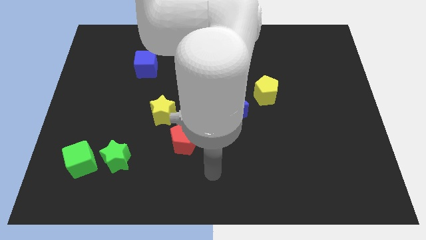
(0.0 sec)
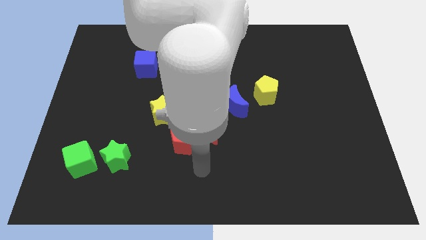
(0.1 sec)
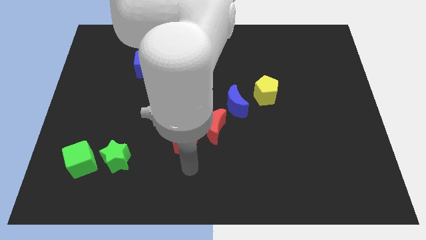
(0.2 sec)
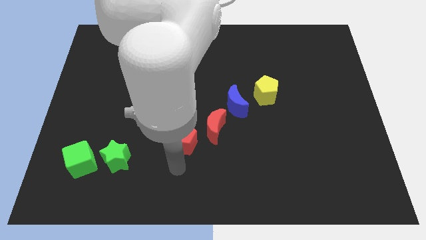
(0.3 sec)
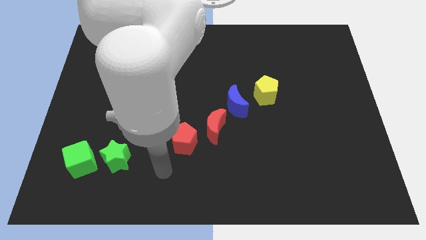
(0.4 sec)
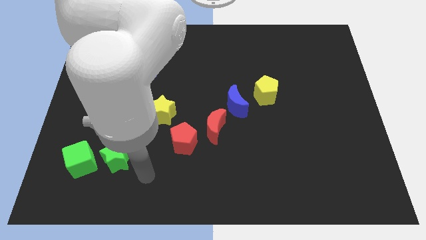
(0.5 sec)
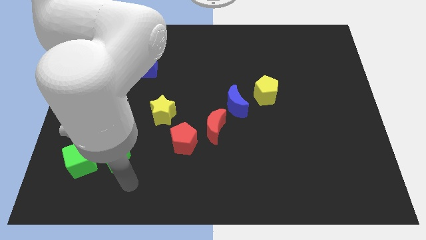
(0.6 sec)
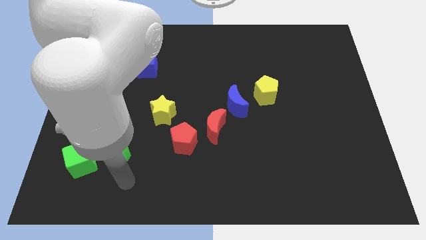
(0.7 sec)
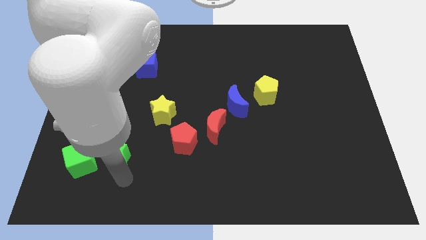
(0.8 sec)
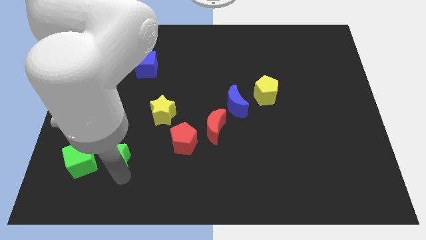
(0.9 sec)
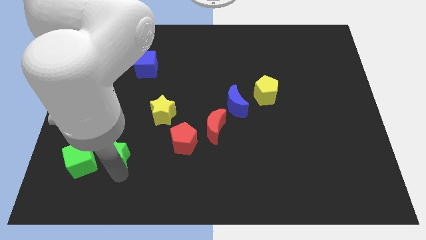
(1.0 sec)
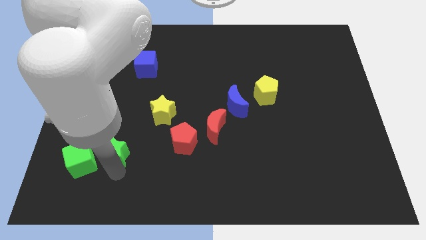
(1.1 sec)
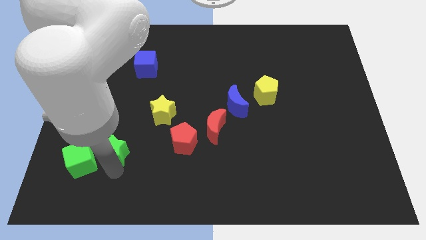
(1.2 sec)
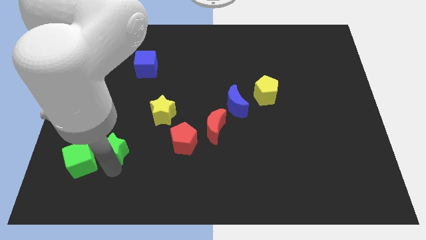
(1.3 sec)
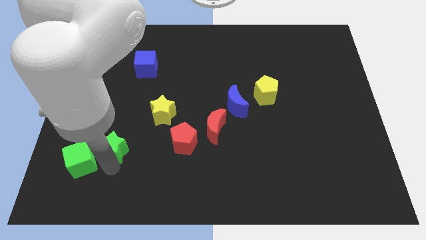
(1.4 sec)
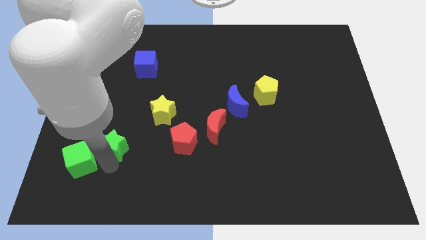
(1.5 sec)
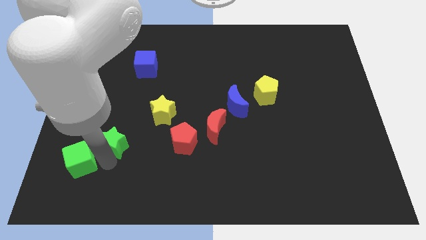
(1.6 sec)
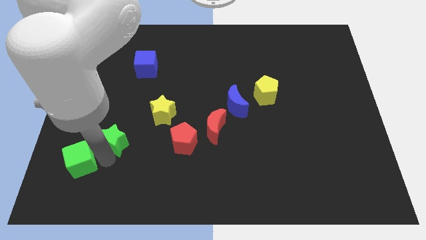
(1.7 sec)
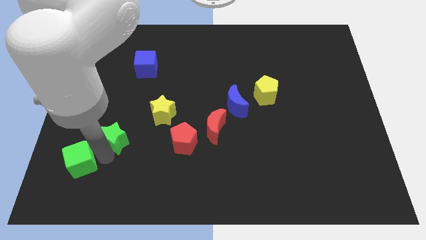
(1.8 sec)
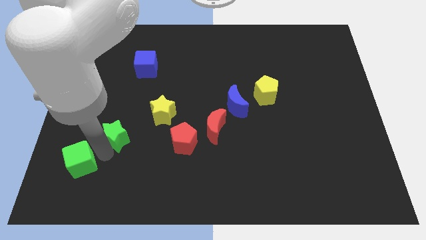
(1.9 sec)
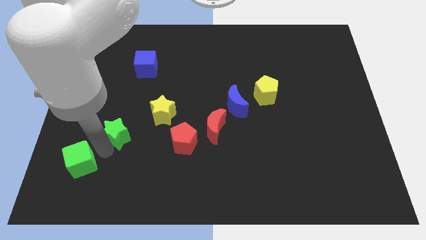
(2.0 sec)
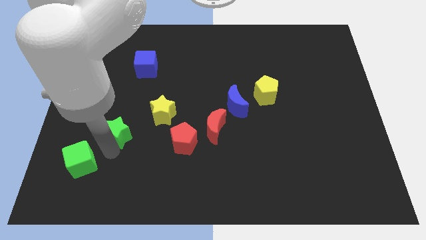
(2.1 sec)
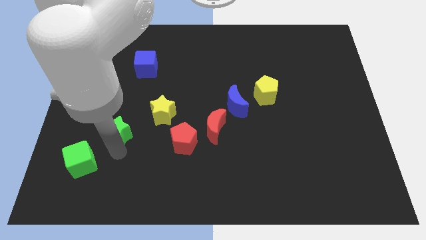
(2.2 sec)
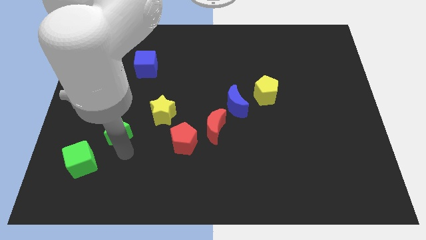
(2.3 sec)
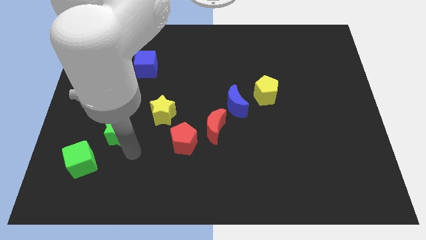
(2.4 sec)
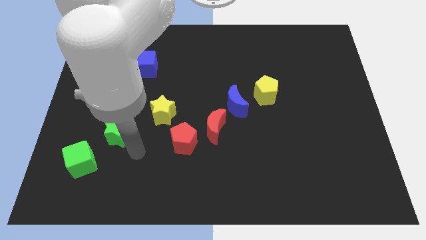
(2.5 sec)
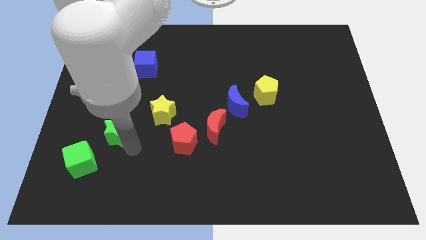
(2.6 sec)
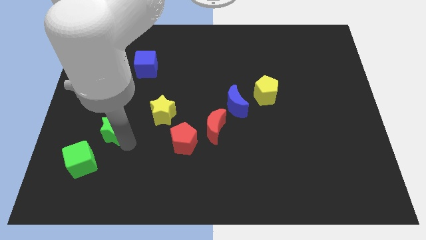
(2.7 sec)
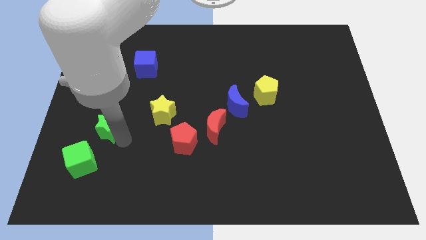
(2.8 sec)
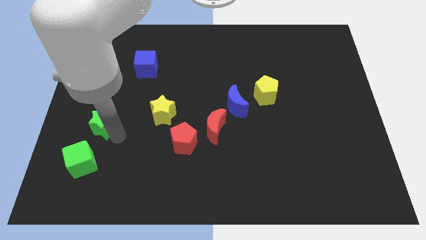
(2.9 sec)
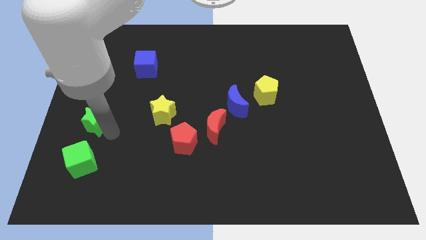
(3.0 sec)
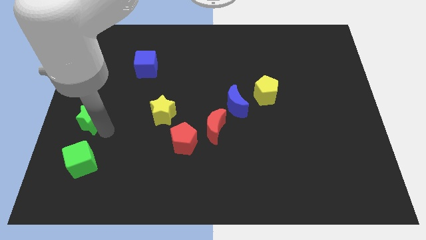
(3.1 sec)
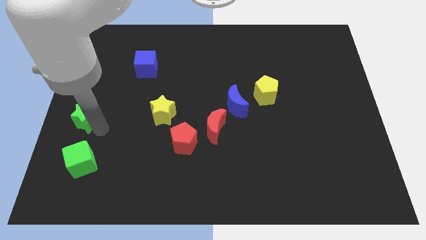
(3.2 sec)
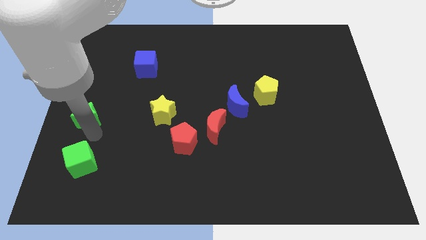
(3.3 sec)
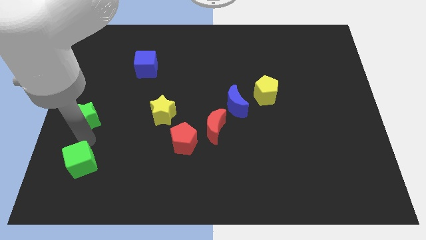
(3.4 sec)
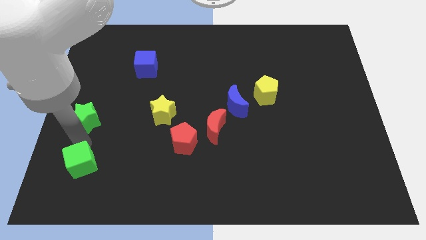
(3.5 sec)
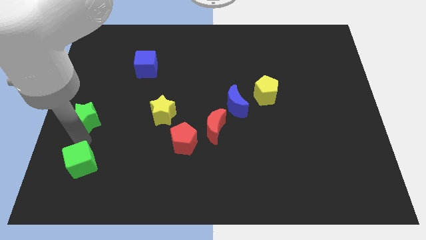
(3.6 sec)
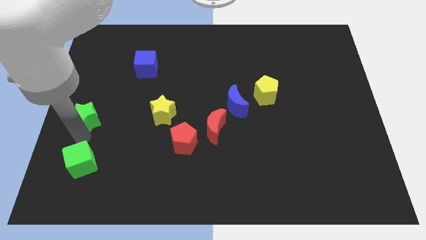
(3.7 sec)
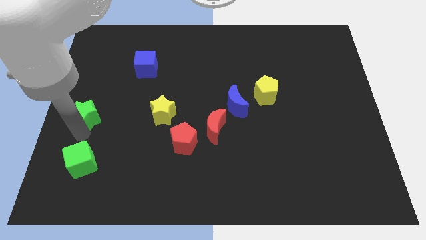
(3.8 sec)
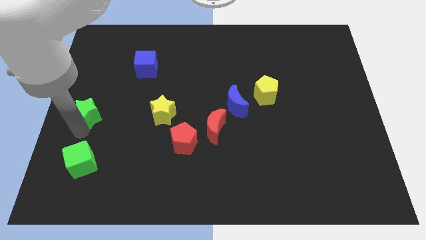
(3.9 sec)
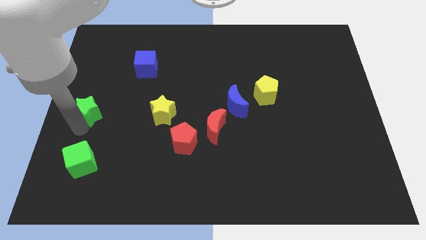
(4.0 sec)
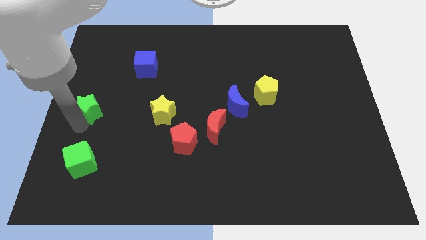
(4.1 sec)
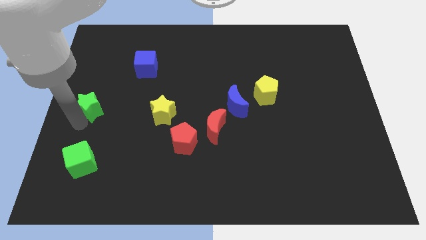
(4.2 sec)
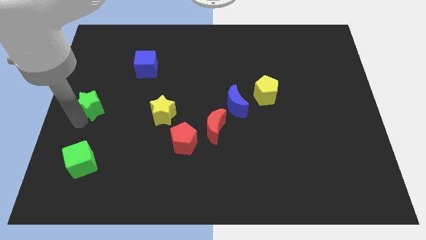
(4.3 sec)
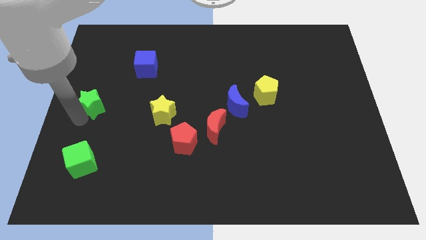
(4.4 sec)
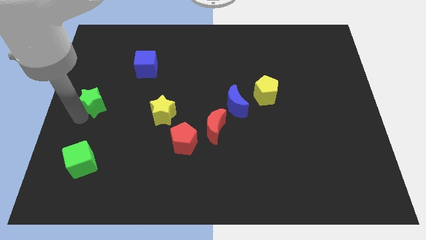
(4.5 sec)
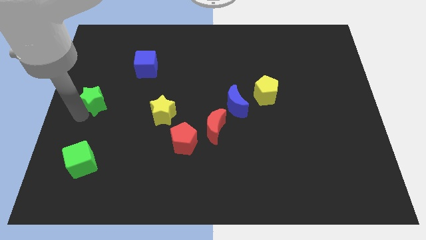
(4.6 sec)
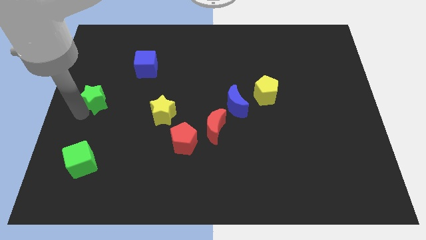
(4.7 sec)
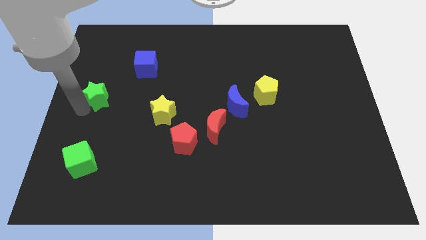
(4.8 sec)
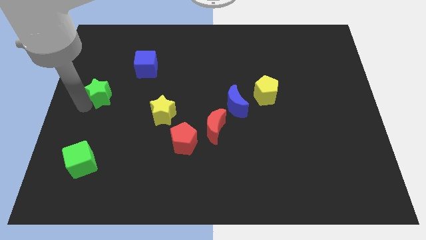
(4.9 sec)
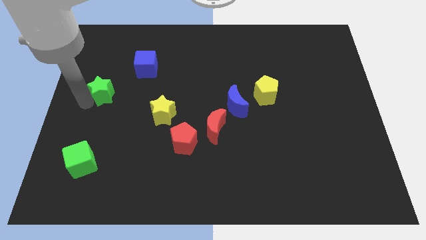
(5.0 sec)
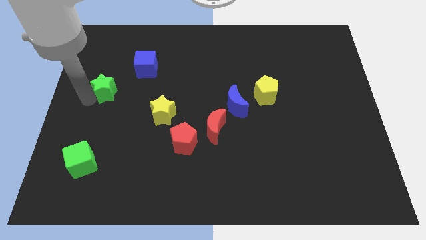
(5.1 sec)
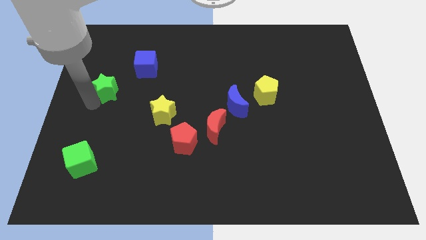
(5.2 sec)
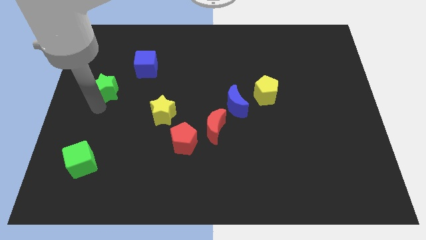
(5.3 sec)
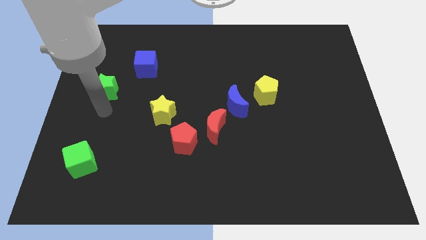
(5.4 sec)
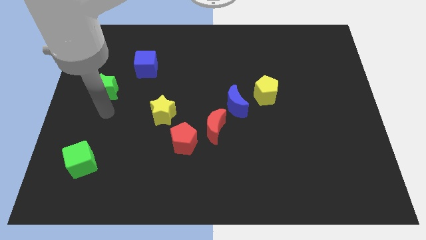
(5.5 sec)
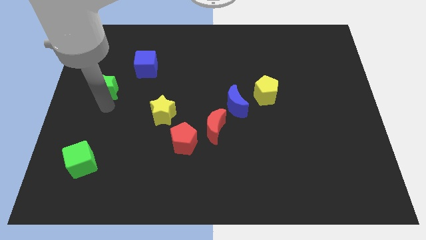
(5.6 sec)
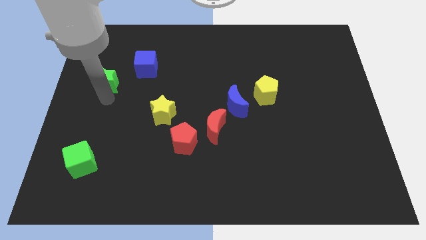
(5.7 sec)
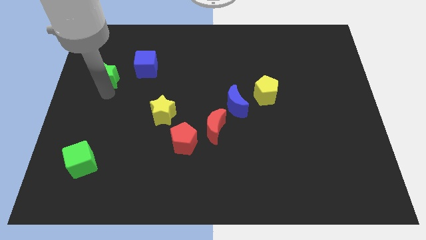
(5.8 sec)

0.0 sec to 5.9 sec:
move the green star just left of the blue cube
